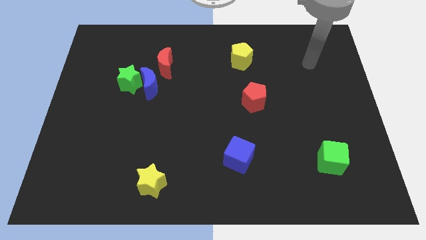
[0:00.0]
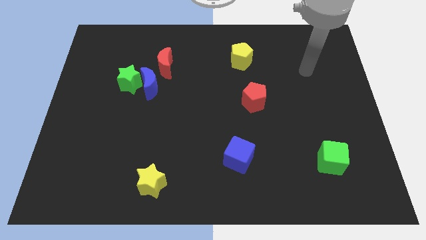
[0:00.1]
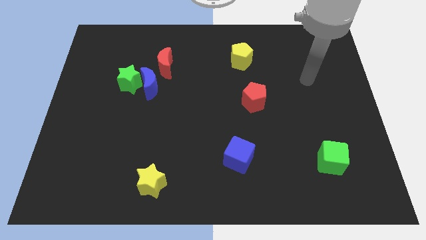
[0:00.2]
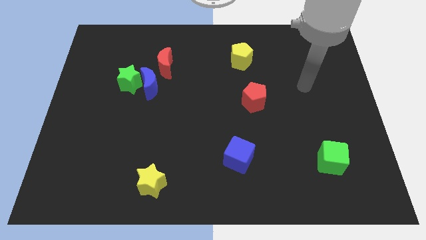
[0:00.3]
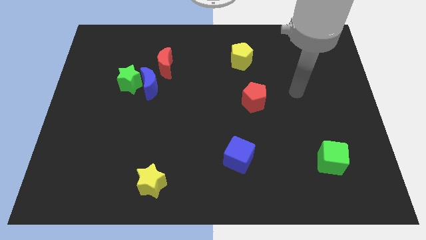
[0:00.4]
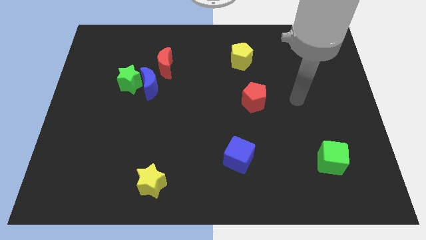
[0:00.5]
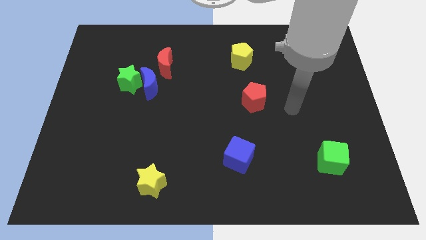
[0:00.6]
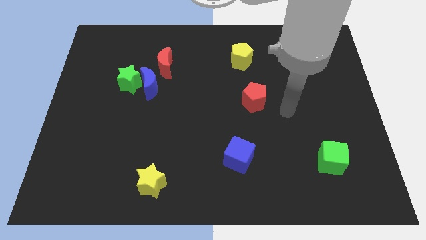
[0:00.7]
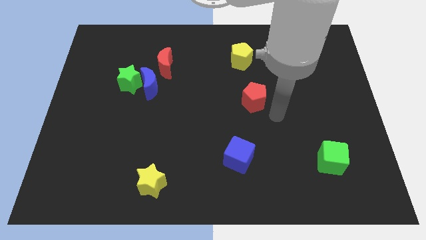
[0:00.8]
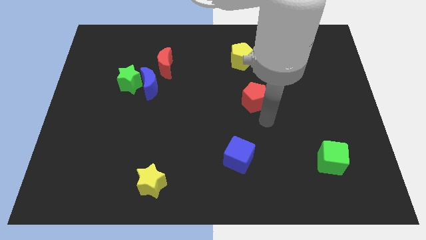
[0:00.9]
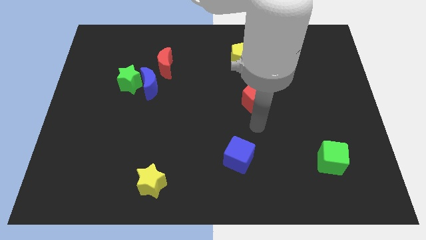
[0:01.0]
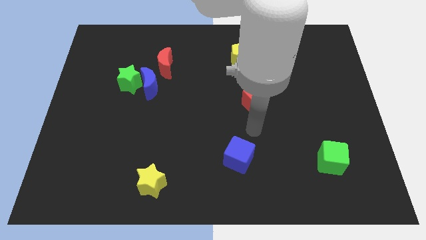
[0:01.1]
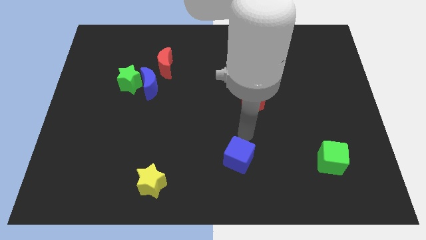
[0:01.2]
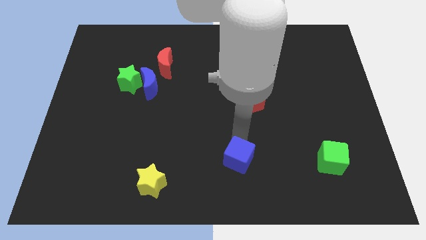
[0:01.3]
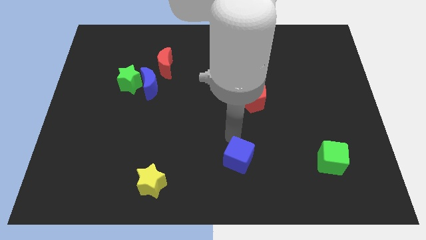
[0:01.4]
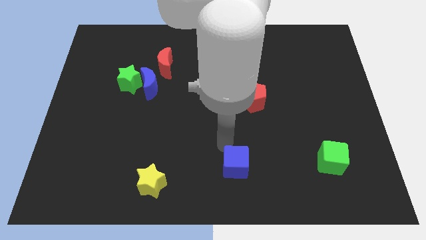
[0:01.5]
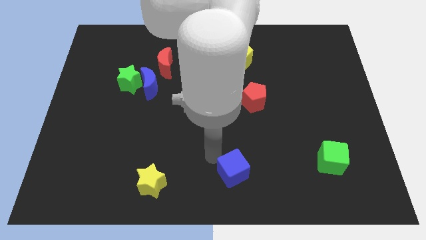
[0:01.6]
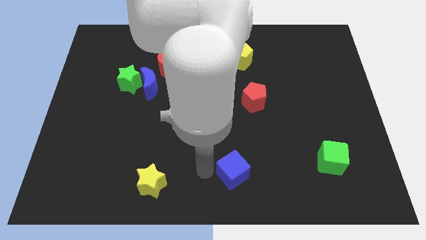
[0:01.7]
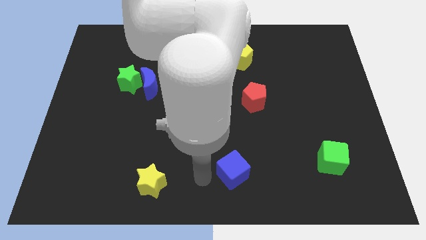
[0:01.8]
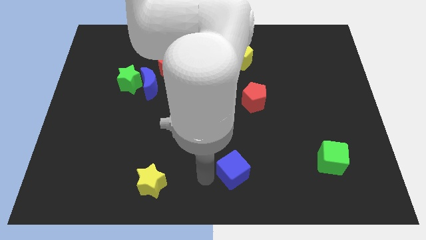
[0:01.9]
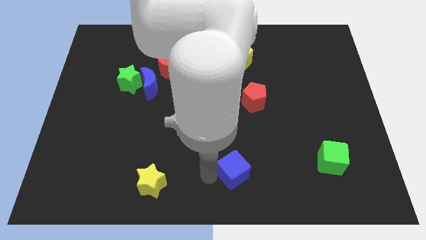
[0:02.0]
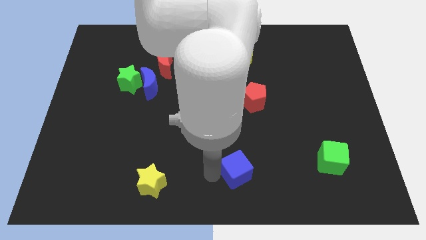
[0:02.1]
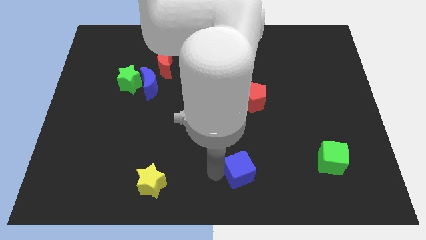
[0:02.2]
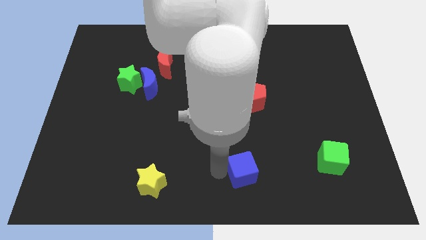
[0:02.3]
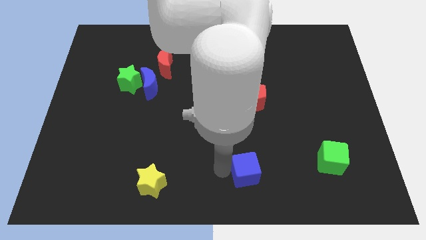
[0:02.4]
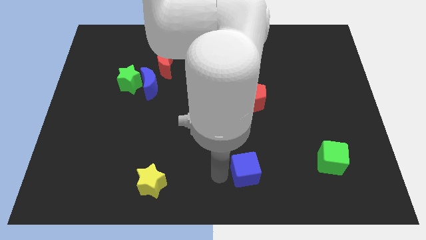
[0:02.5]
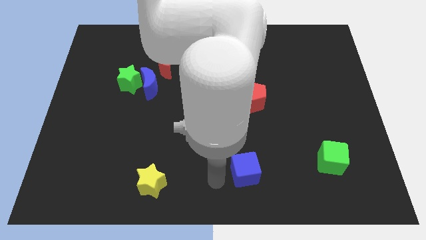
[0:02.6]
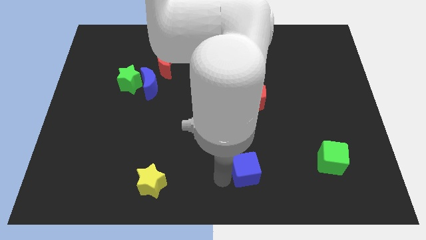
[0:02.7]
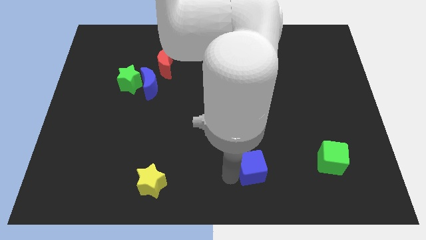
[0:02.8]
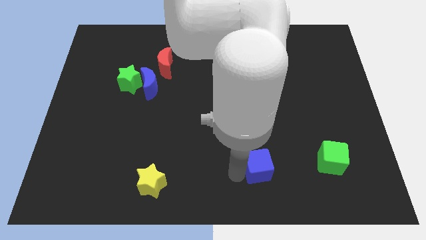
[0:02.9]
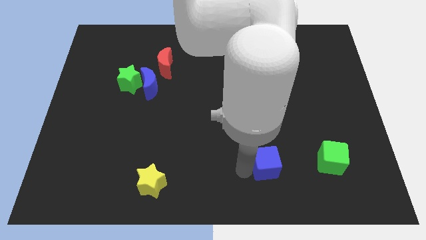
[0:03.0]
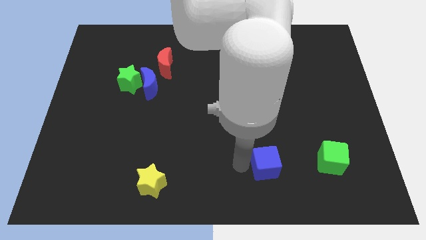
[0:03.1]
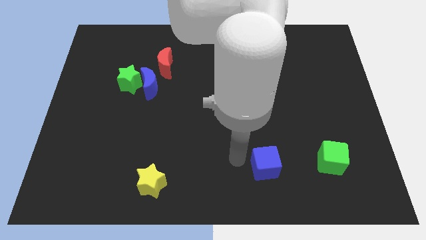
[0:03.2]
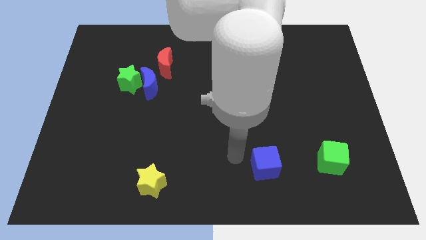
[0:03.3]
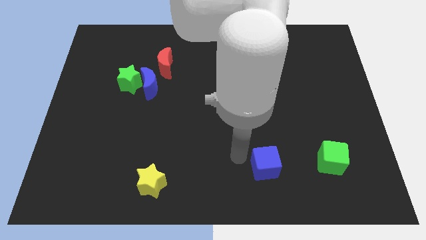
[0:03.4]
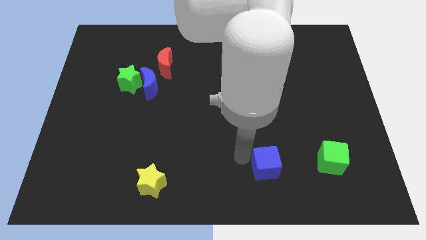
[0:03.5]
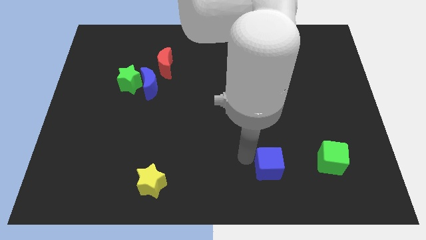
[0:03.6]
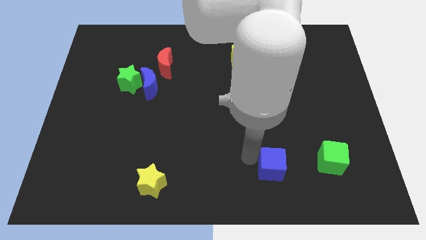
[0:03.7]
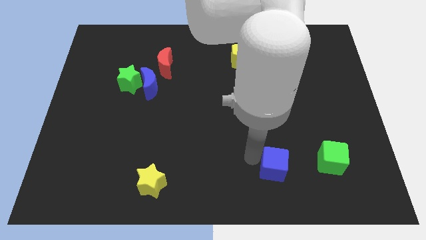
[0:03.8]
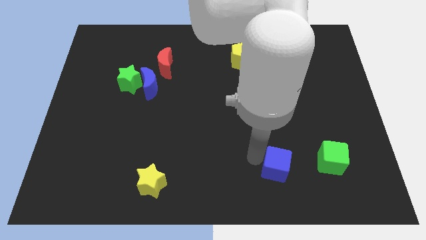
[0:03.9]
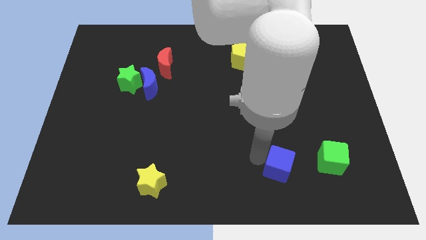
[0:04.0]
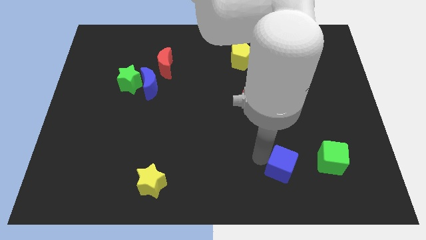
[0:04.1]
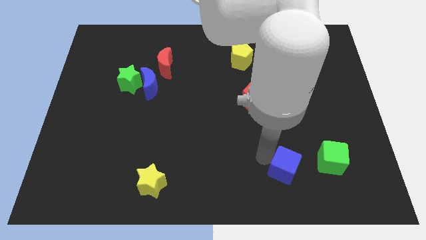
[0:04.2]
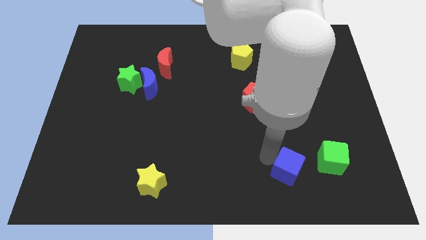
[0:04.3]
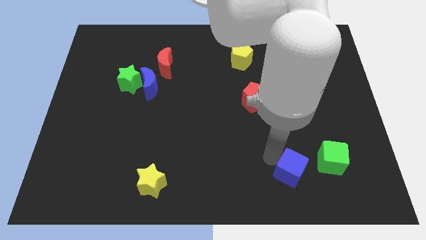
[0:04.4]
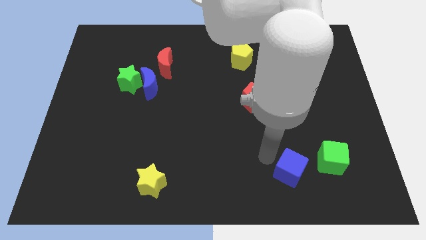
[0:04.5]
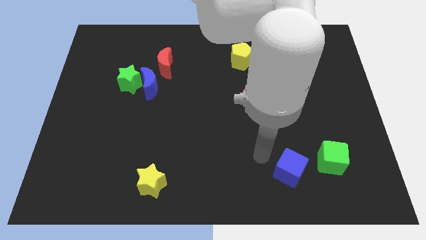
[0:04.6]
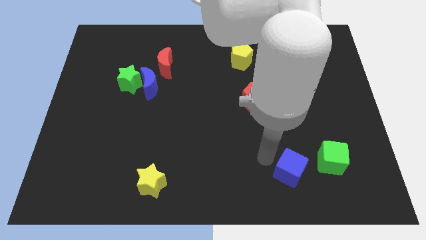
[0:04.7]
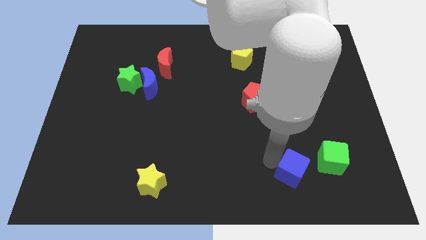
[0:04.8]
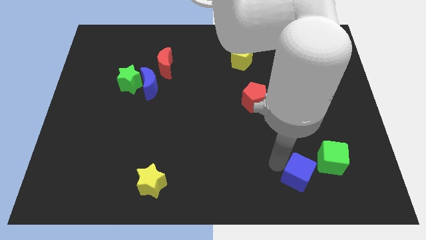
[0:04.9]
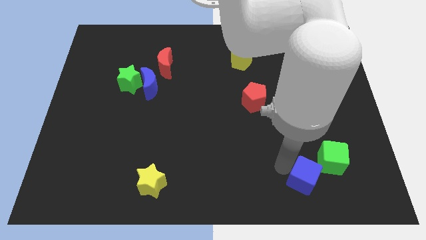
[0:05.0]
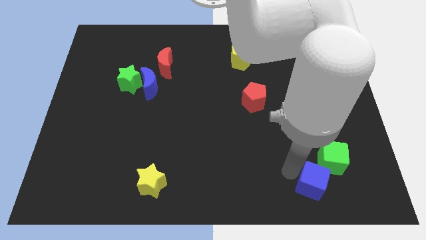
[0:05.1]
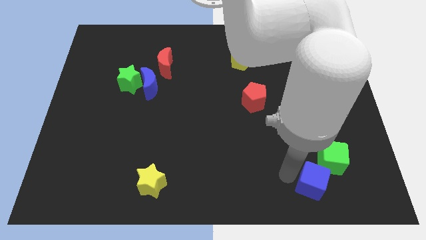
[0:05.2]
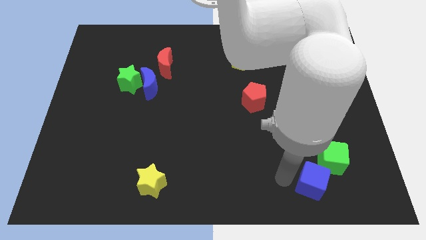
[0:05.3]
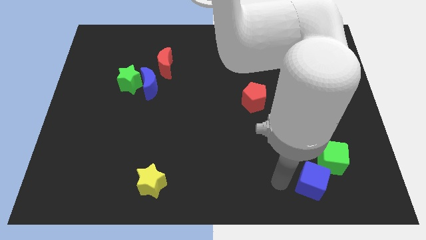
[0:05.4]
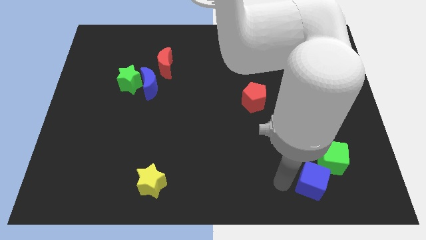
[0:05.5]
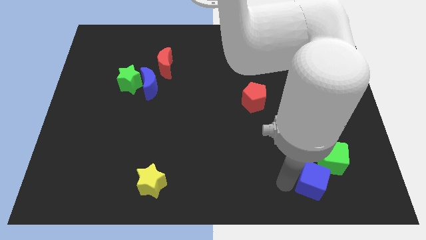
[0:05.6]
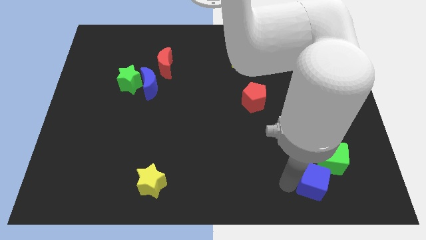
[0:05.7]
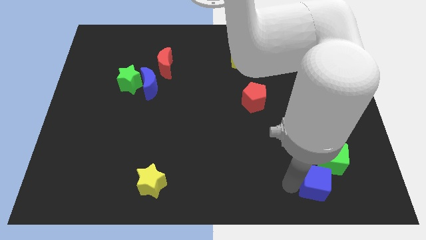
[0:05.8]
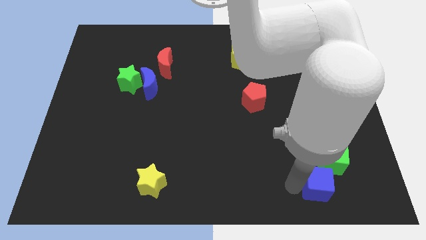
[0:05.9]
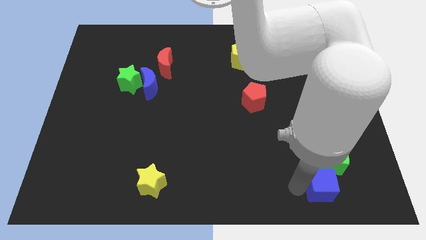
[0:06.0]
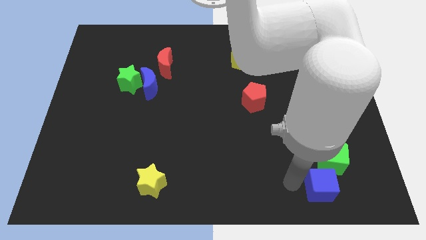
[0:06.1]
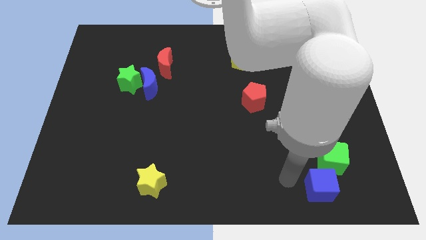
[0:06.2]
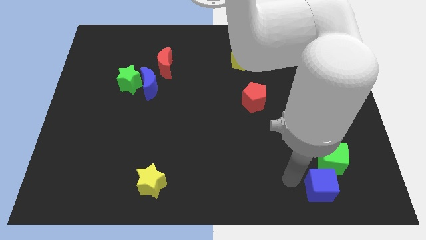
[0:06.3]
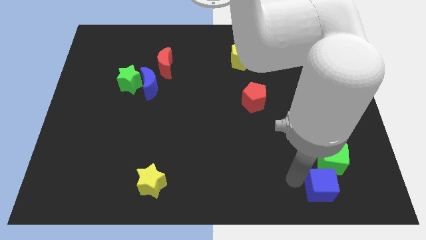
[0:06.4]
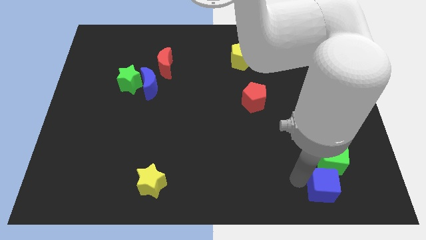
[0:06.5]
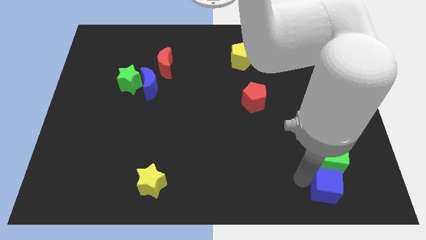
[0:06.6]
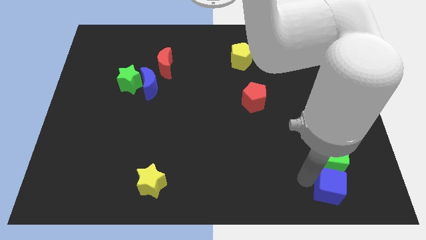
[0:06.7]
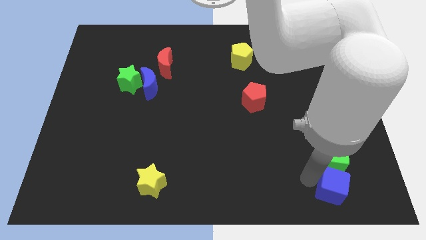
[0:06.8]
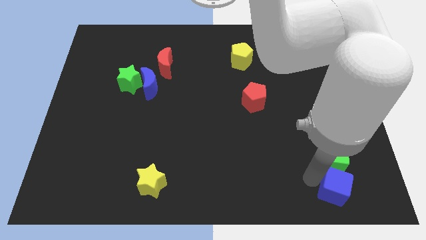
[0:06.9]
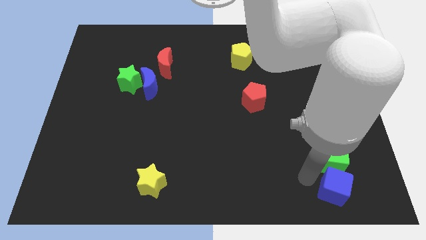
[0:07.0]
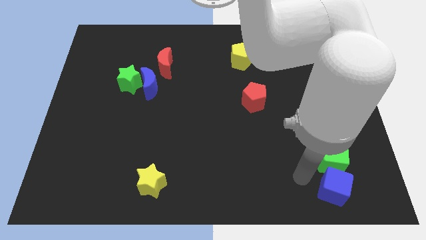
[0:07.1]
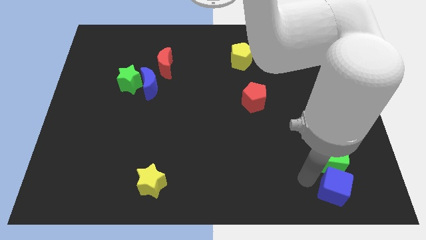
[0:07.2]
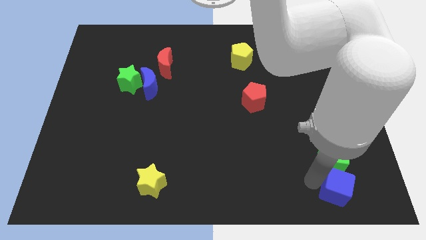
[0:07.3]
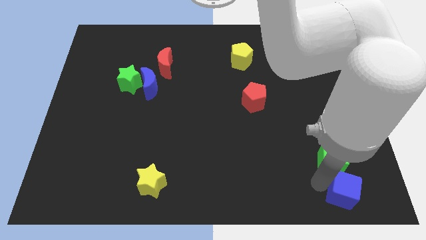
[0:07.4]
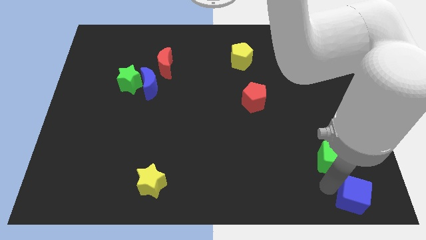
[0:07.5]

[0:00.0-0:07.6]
move the blue cube to the bottom right of the board
